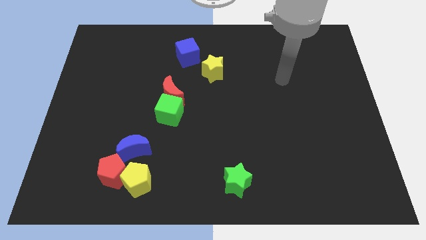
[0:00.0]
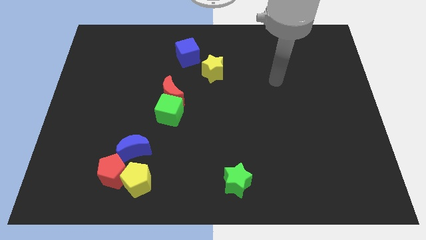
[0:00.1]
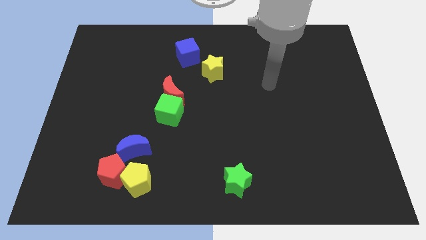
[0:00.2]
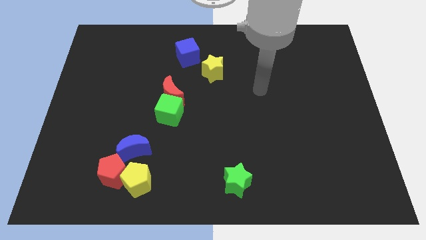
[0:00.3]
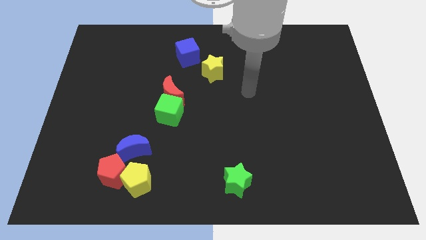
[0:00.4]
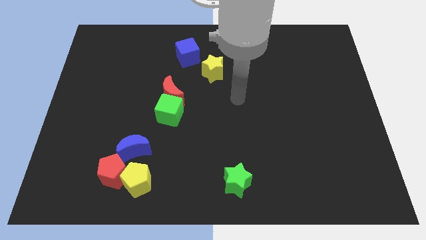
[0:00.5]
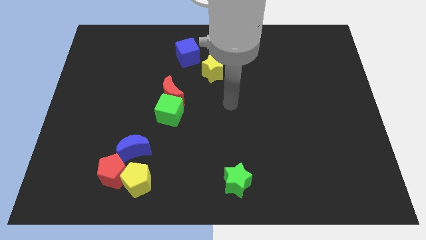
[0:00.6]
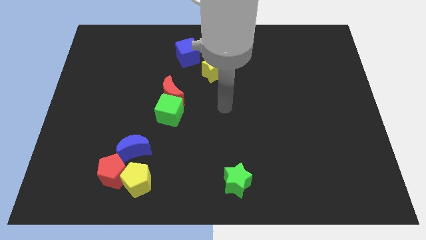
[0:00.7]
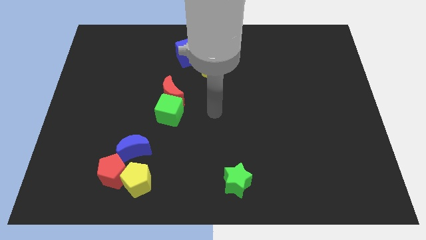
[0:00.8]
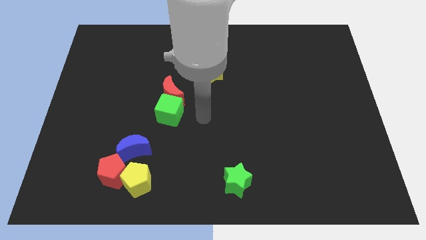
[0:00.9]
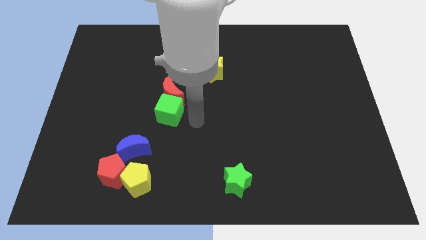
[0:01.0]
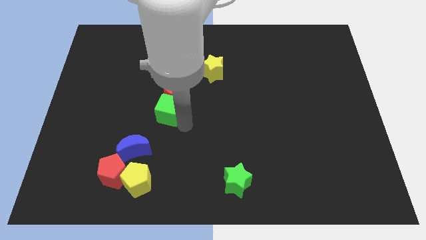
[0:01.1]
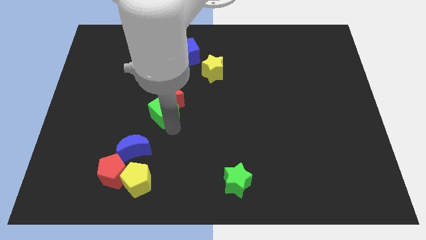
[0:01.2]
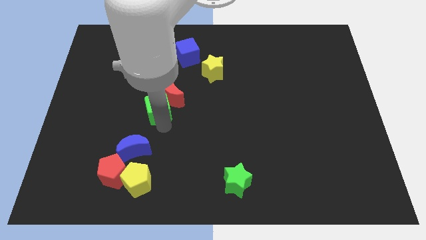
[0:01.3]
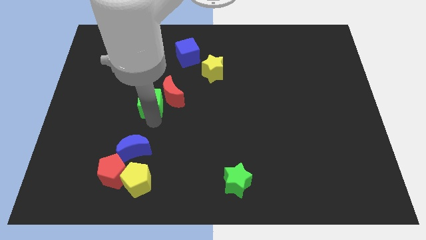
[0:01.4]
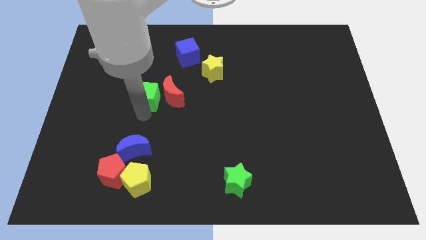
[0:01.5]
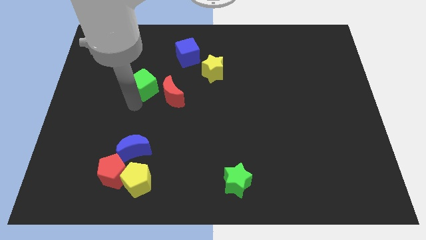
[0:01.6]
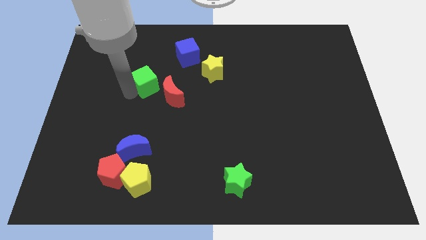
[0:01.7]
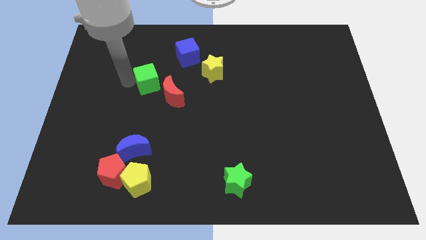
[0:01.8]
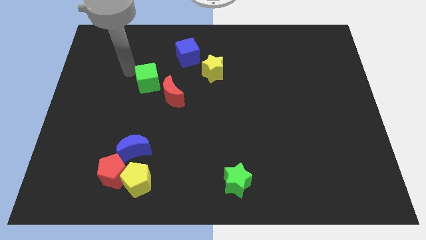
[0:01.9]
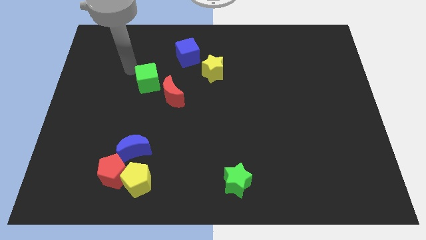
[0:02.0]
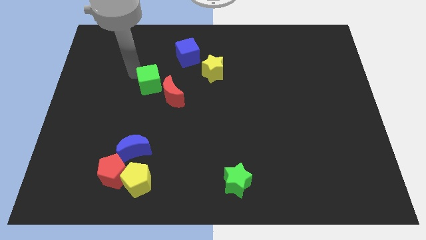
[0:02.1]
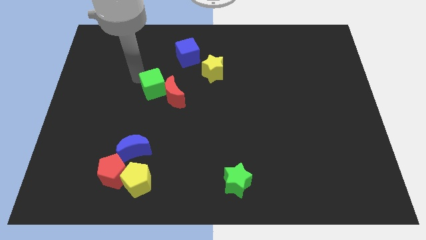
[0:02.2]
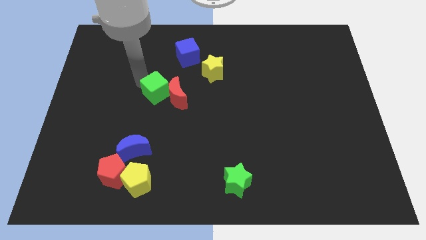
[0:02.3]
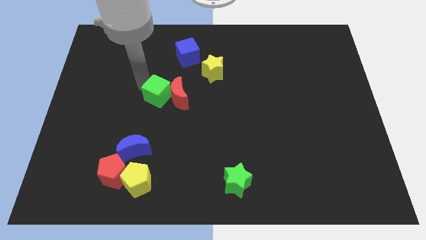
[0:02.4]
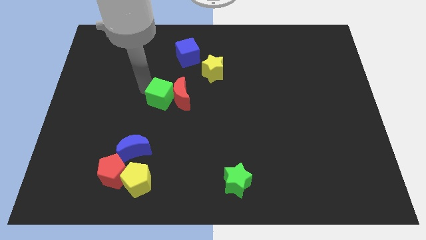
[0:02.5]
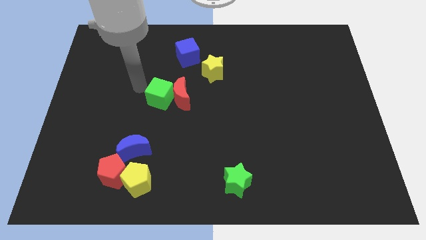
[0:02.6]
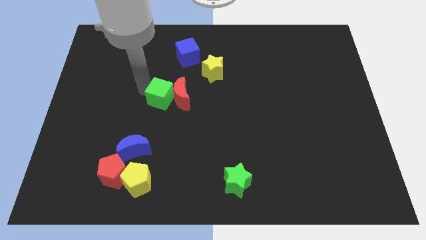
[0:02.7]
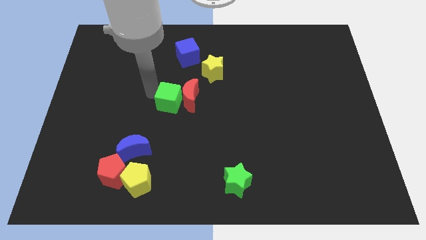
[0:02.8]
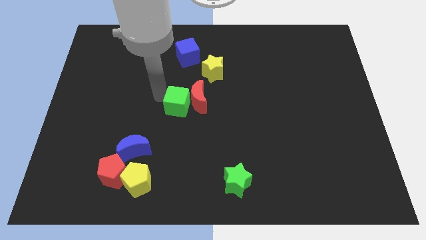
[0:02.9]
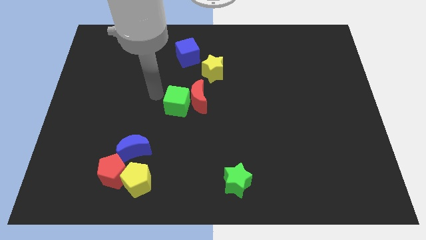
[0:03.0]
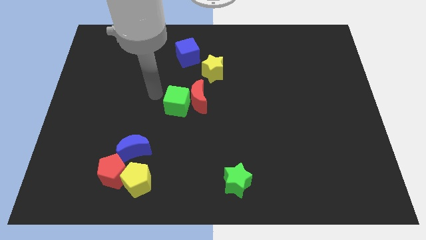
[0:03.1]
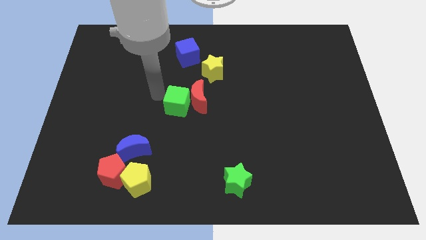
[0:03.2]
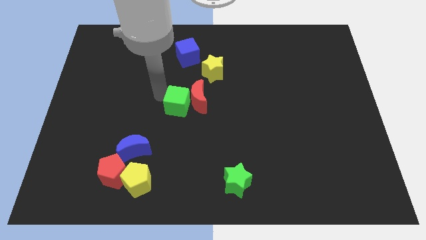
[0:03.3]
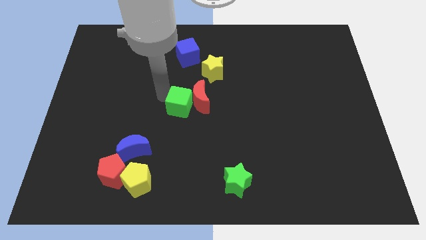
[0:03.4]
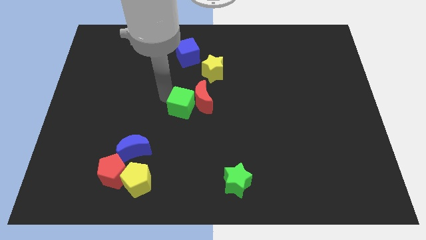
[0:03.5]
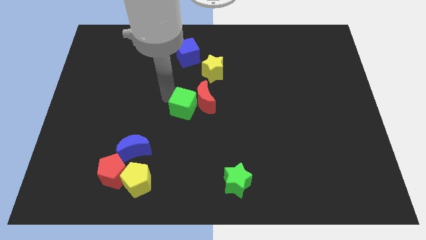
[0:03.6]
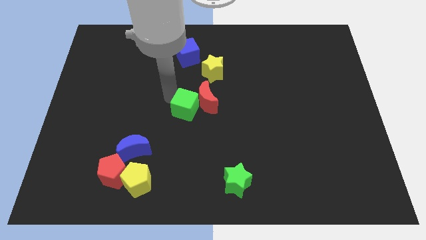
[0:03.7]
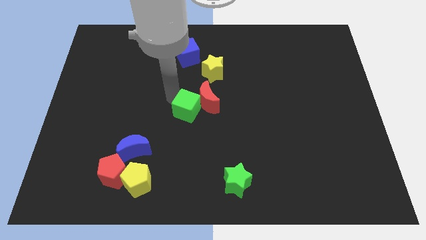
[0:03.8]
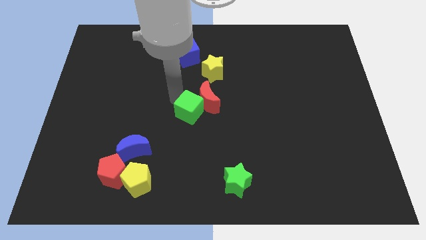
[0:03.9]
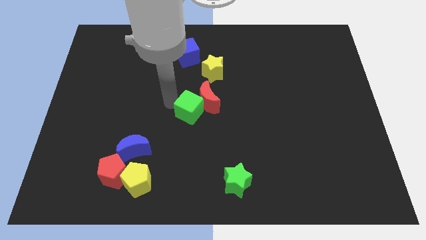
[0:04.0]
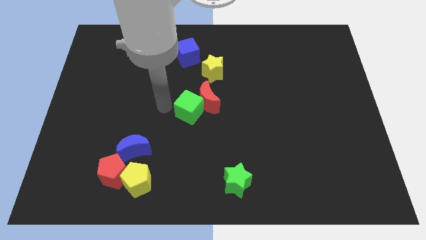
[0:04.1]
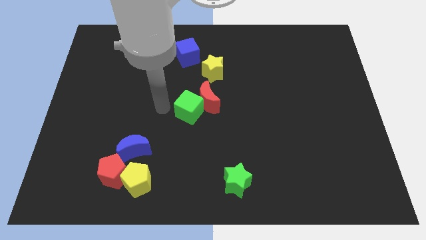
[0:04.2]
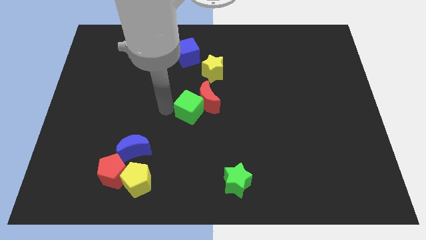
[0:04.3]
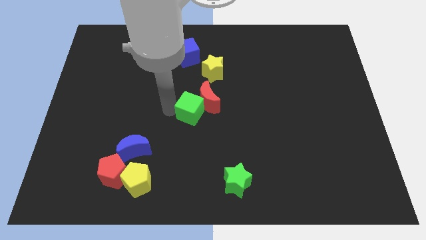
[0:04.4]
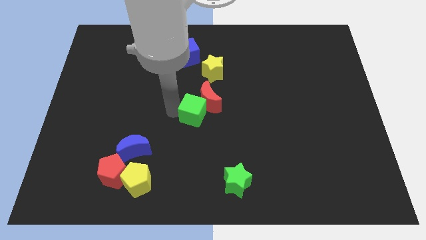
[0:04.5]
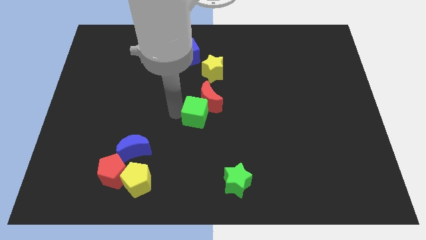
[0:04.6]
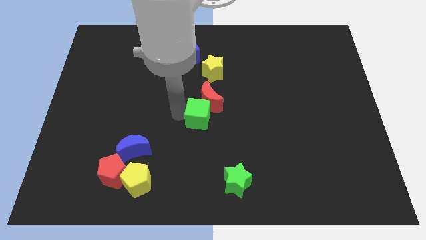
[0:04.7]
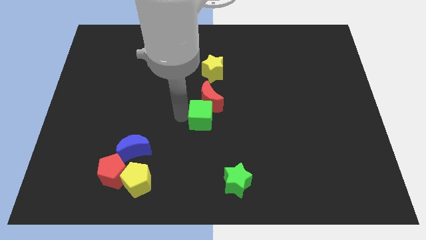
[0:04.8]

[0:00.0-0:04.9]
slightly push the green cube to the right

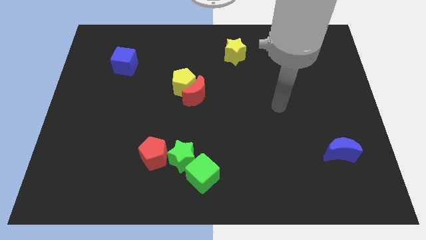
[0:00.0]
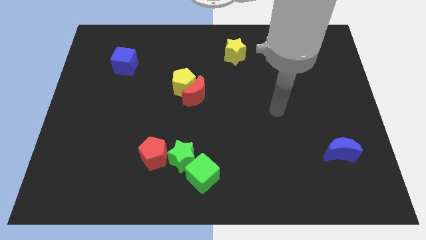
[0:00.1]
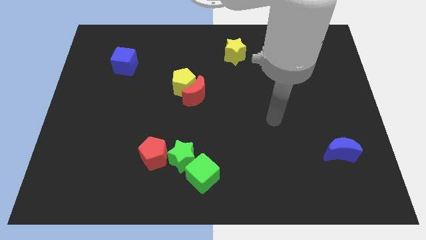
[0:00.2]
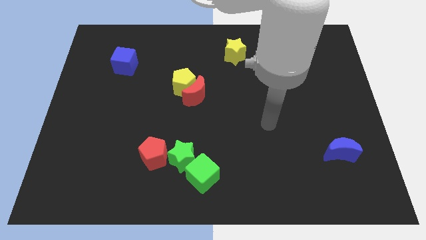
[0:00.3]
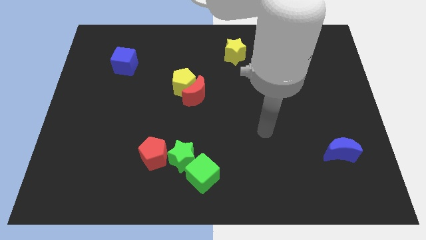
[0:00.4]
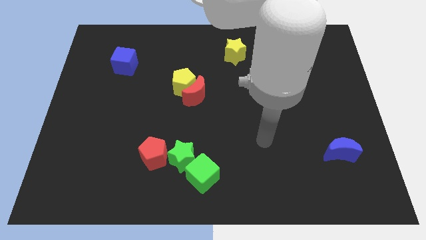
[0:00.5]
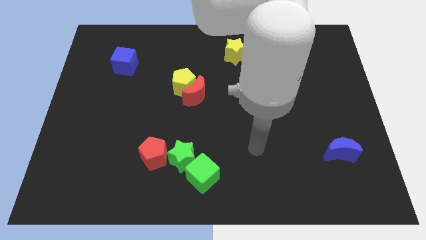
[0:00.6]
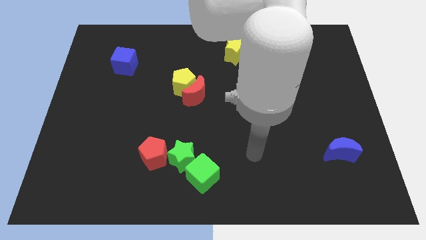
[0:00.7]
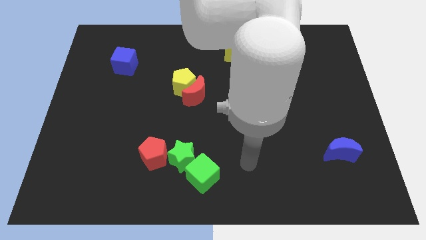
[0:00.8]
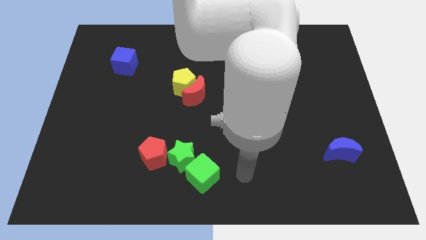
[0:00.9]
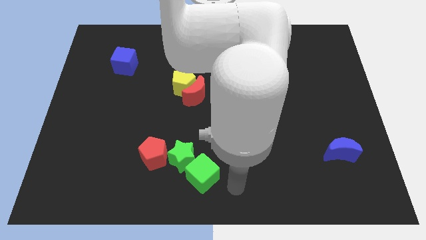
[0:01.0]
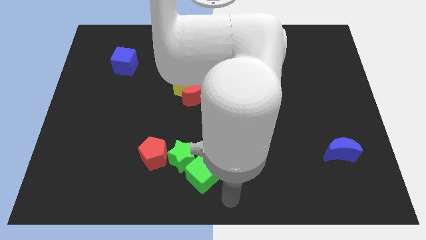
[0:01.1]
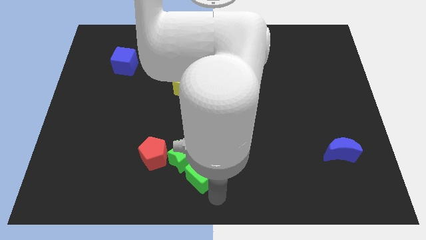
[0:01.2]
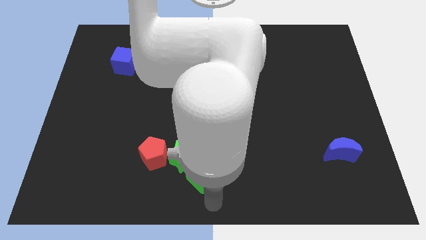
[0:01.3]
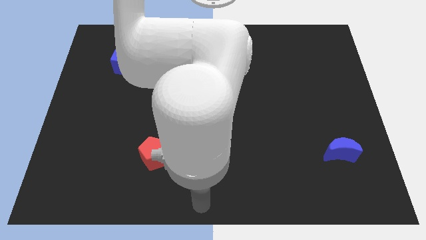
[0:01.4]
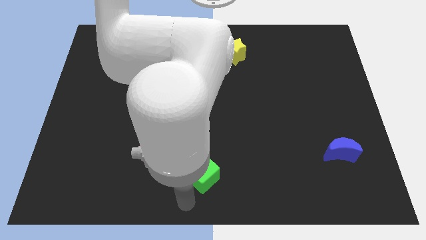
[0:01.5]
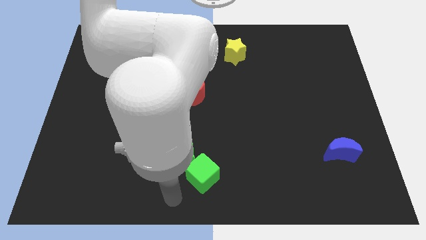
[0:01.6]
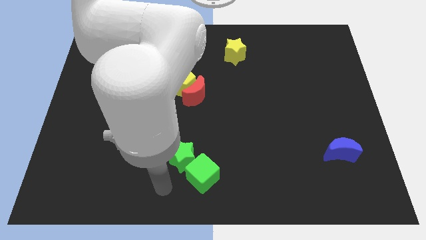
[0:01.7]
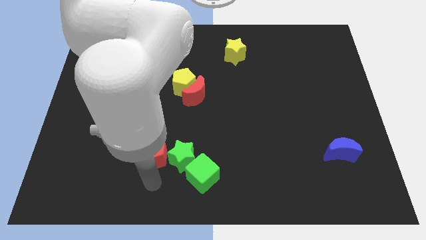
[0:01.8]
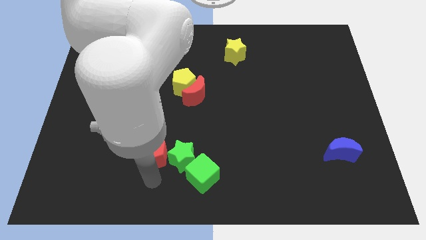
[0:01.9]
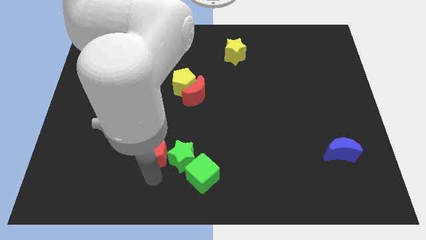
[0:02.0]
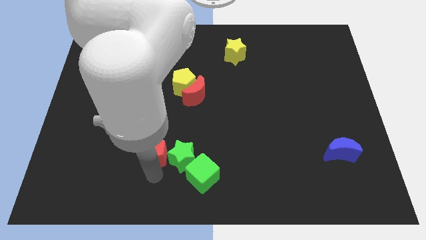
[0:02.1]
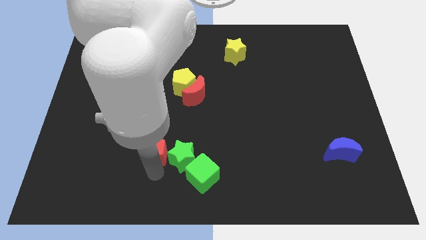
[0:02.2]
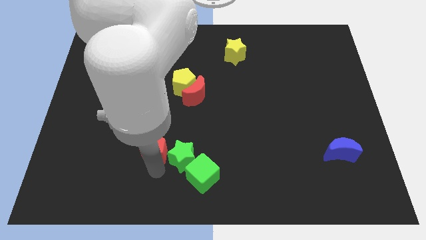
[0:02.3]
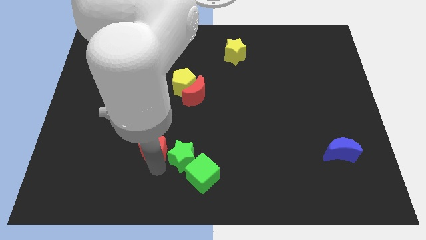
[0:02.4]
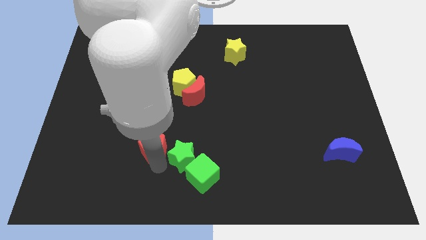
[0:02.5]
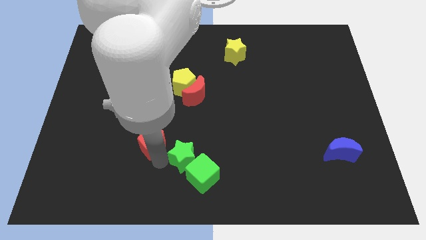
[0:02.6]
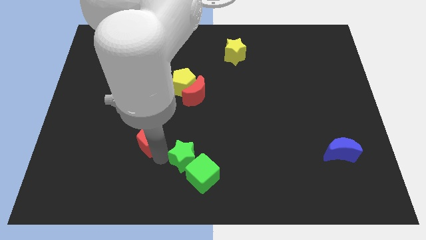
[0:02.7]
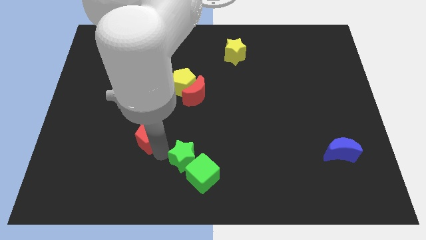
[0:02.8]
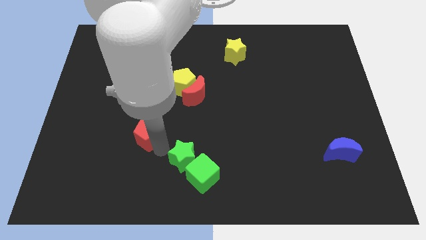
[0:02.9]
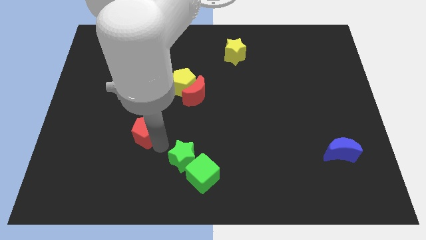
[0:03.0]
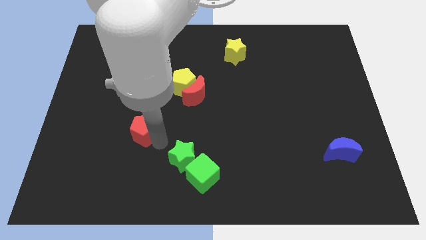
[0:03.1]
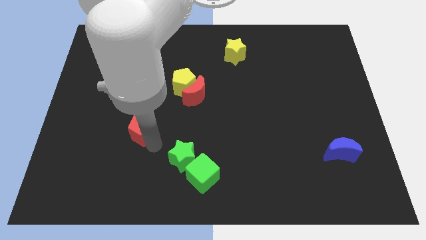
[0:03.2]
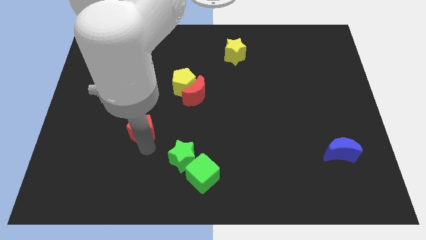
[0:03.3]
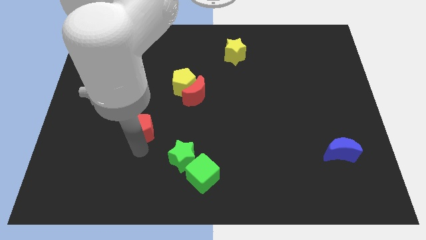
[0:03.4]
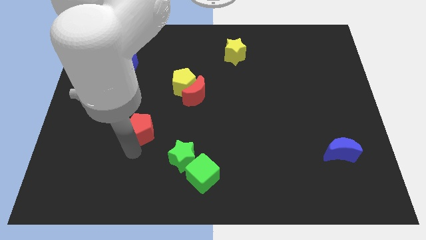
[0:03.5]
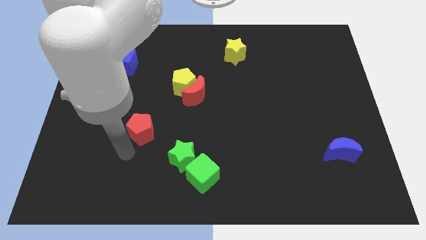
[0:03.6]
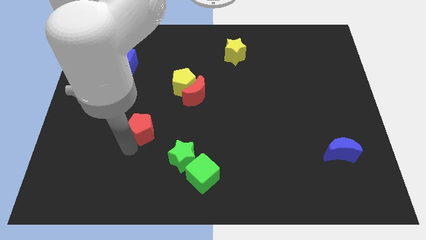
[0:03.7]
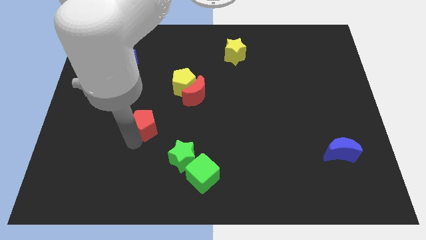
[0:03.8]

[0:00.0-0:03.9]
slightly slide the red pentagon up
